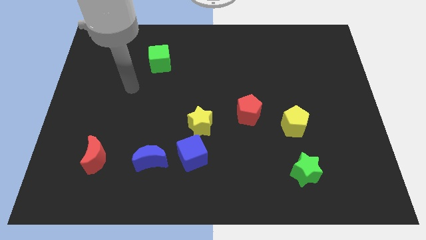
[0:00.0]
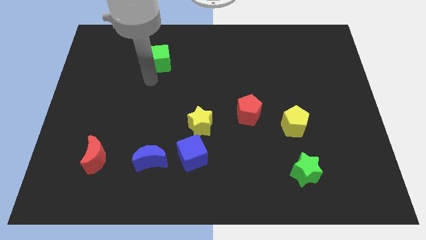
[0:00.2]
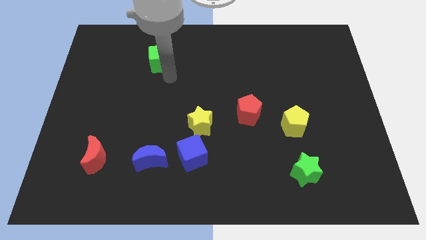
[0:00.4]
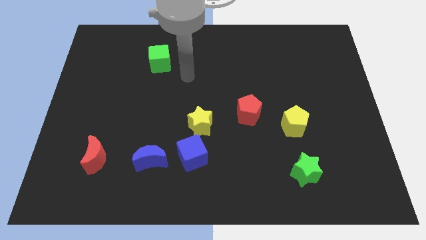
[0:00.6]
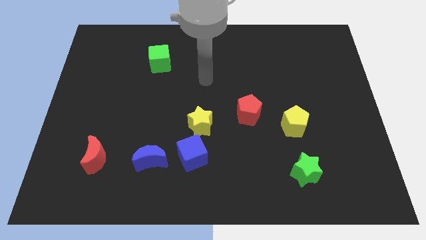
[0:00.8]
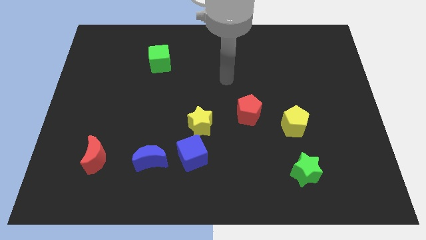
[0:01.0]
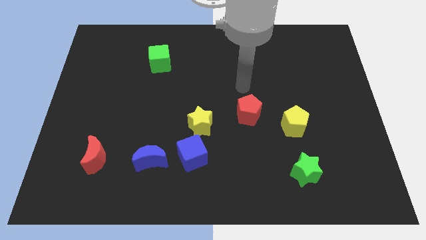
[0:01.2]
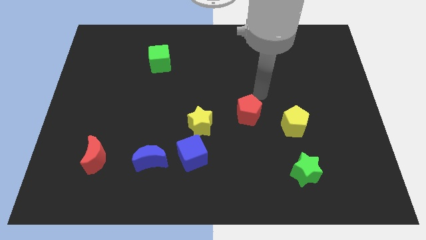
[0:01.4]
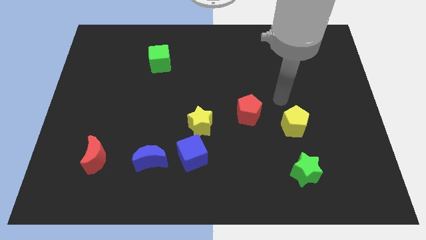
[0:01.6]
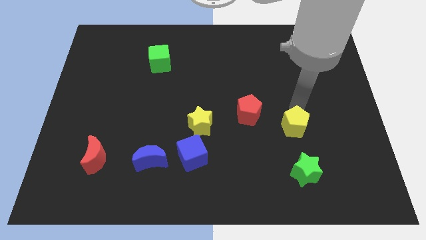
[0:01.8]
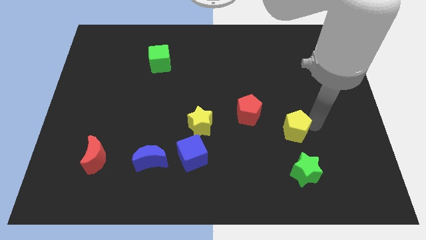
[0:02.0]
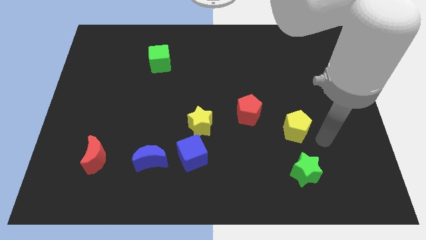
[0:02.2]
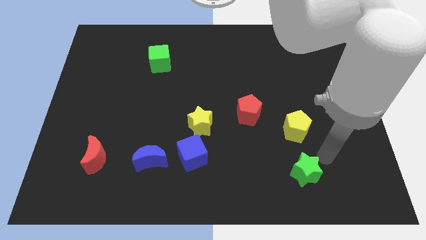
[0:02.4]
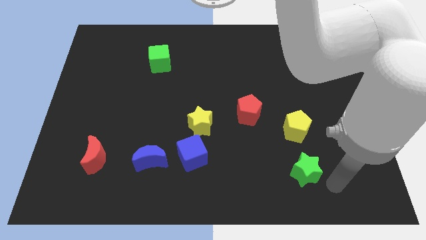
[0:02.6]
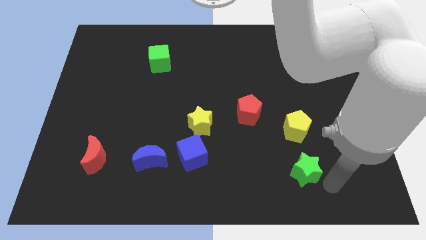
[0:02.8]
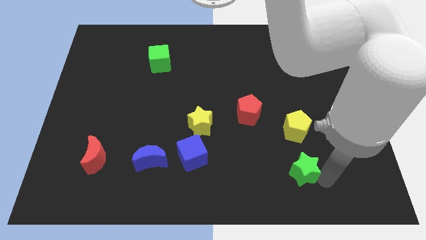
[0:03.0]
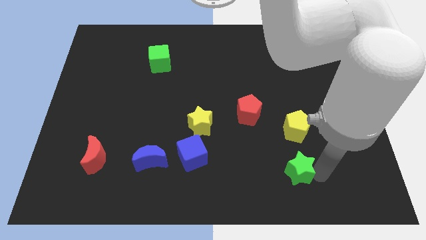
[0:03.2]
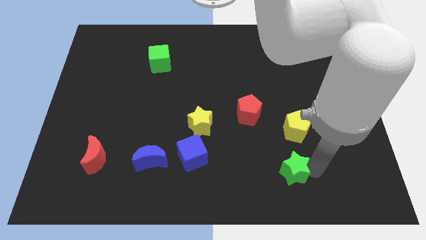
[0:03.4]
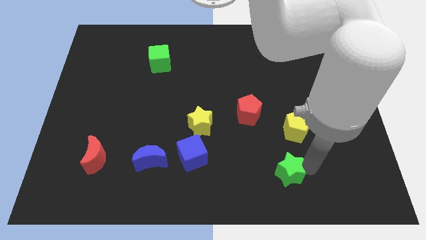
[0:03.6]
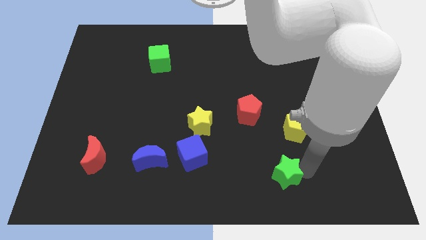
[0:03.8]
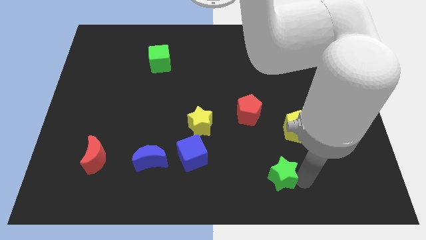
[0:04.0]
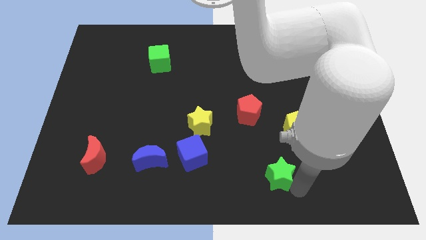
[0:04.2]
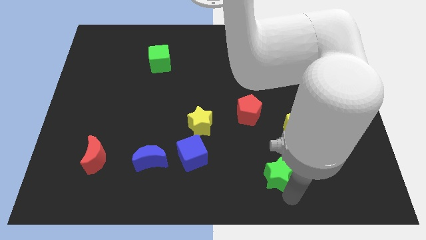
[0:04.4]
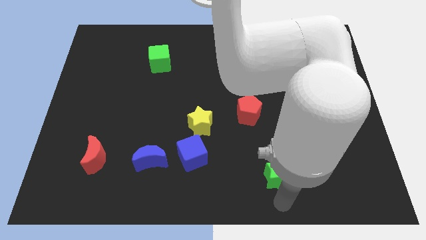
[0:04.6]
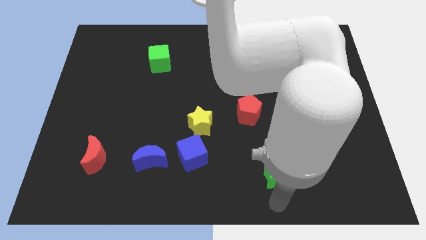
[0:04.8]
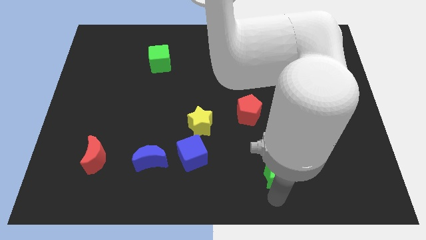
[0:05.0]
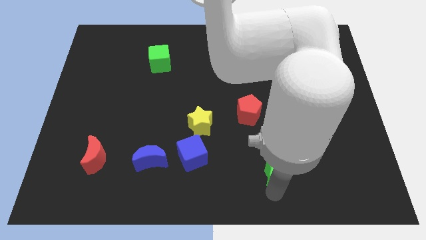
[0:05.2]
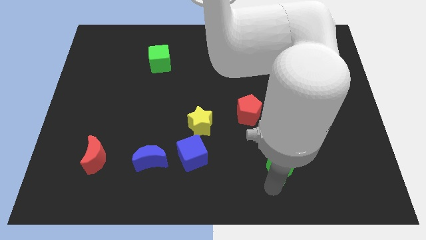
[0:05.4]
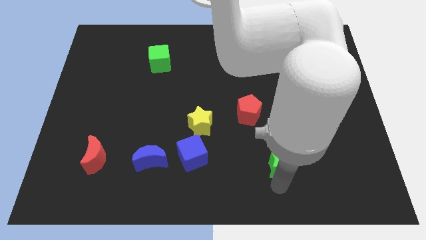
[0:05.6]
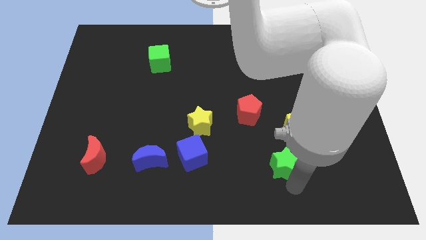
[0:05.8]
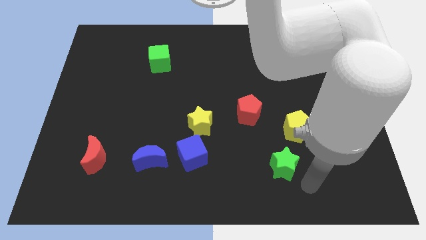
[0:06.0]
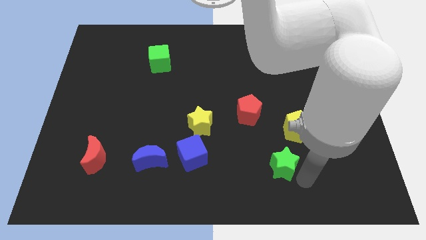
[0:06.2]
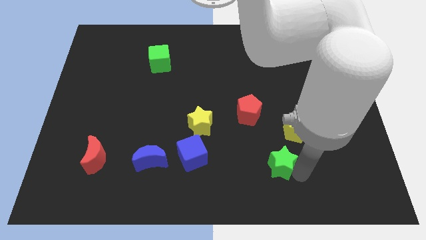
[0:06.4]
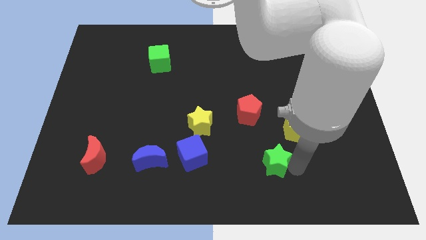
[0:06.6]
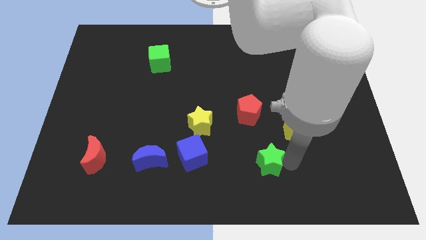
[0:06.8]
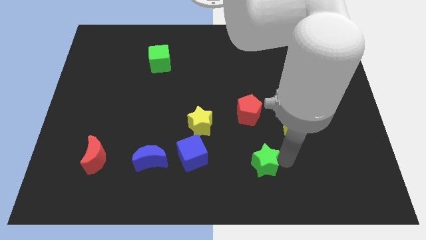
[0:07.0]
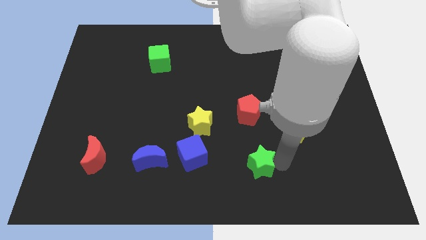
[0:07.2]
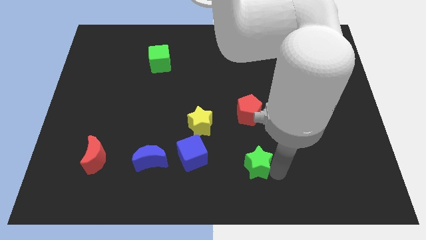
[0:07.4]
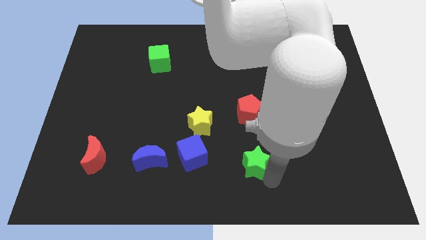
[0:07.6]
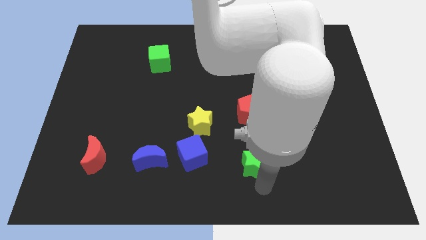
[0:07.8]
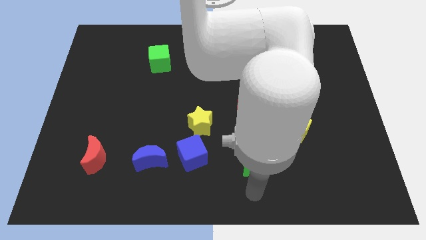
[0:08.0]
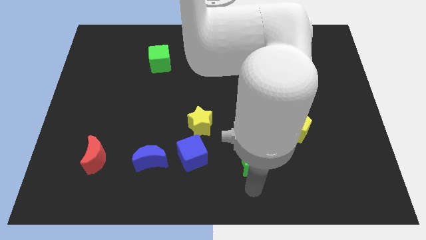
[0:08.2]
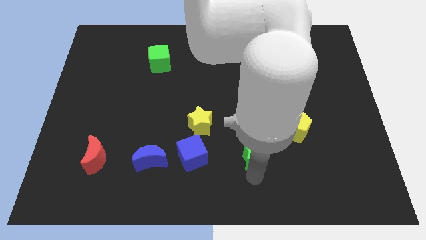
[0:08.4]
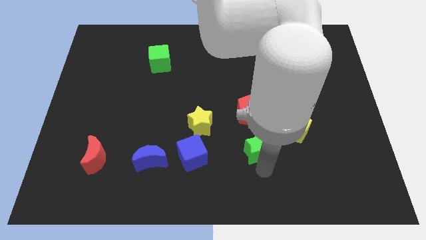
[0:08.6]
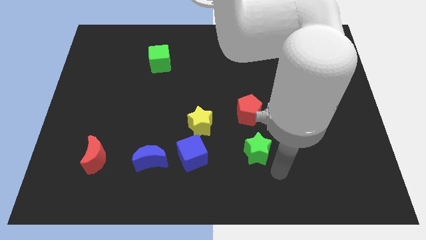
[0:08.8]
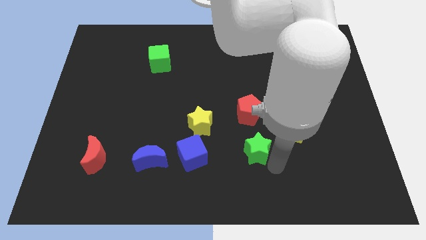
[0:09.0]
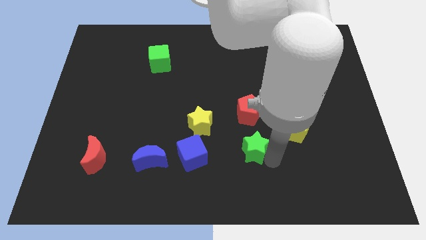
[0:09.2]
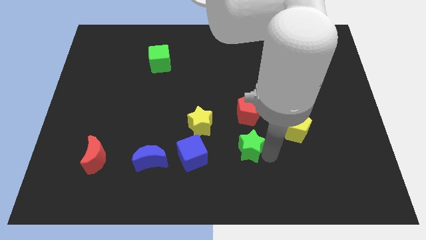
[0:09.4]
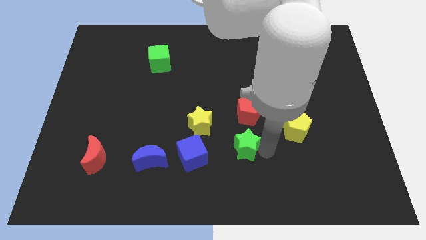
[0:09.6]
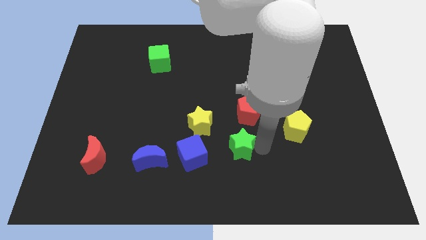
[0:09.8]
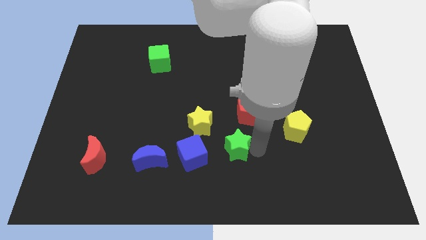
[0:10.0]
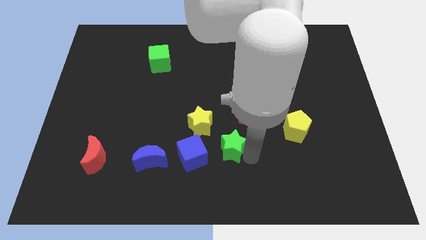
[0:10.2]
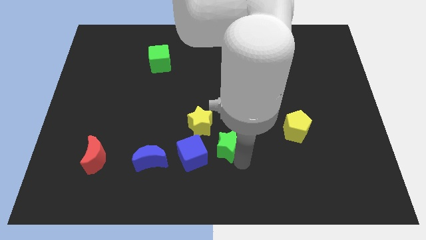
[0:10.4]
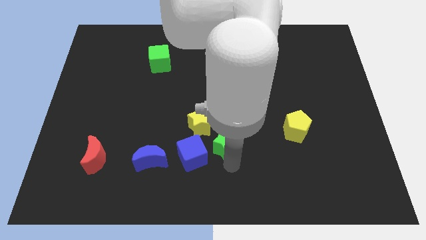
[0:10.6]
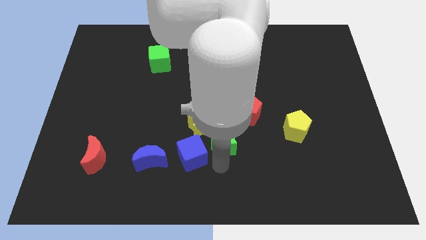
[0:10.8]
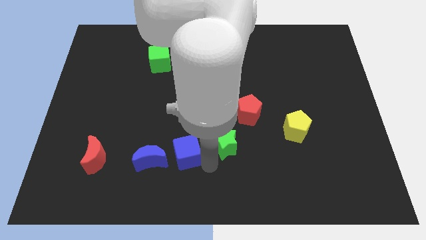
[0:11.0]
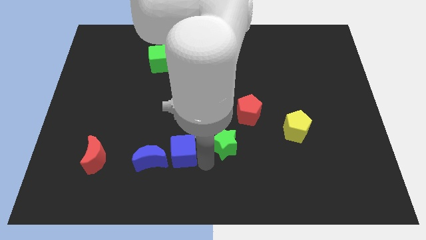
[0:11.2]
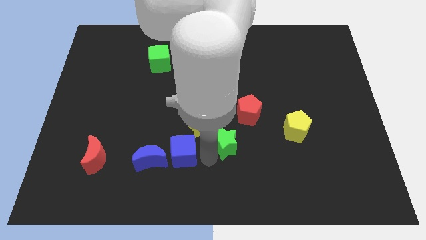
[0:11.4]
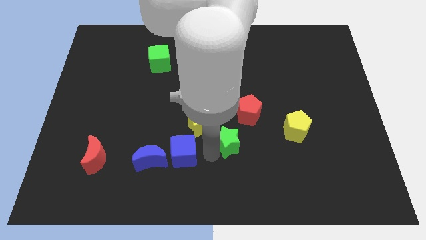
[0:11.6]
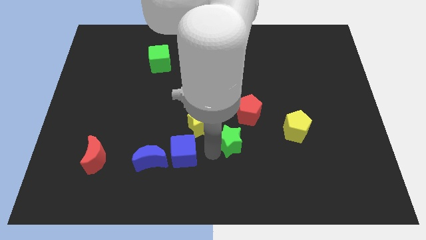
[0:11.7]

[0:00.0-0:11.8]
slide the green star to the center of the board

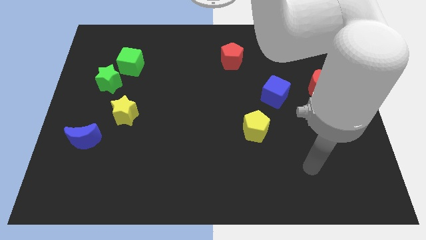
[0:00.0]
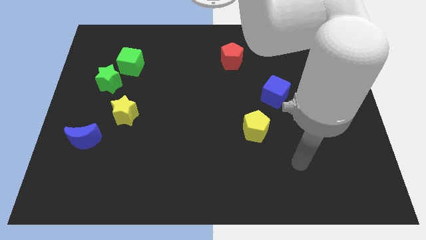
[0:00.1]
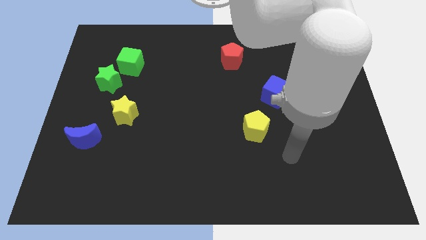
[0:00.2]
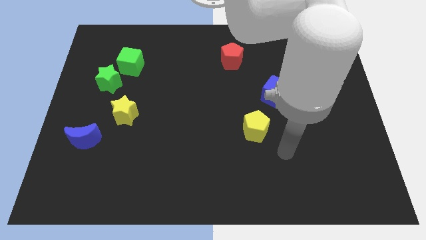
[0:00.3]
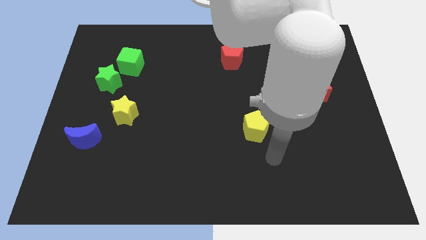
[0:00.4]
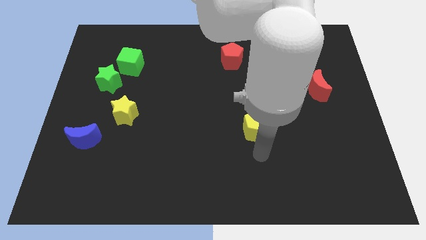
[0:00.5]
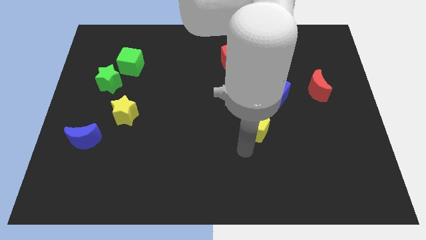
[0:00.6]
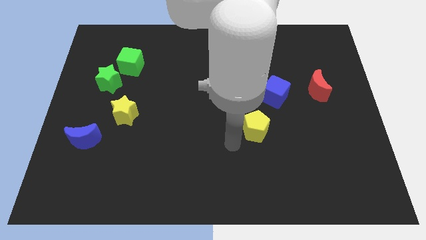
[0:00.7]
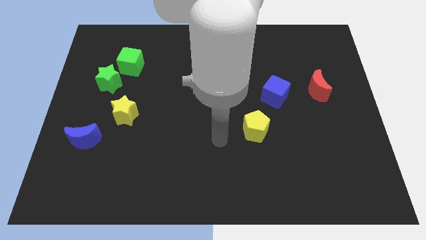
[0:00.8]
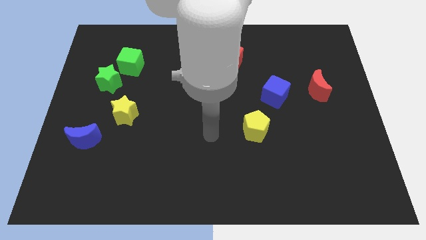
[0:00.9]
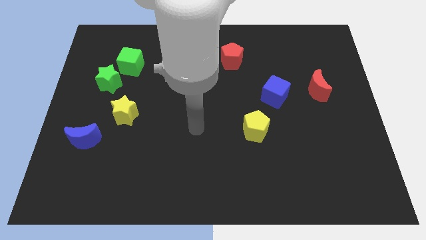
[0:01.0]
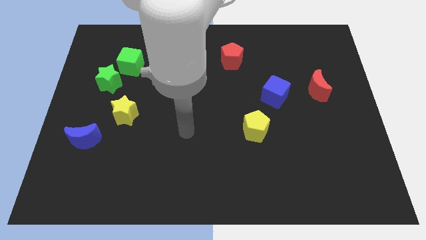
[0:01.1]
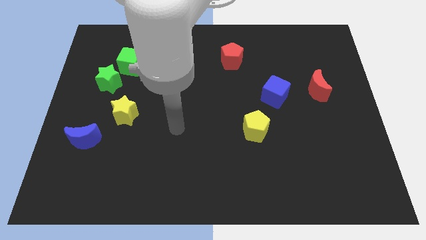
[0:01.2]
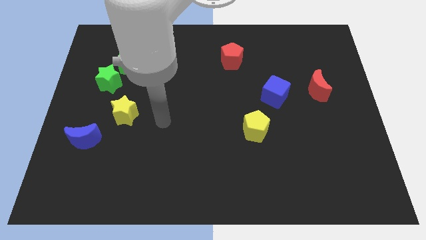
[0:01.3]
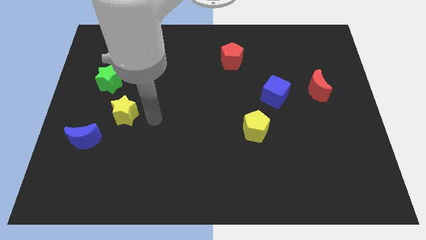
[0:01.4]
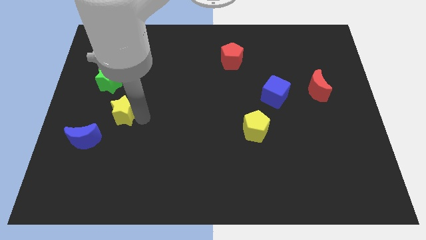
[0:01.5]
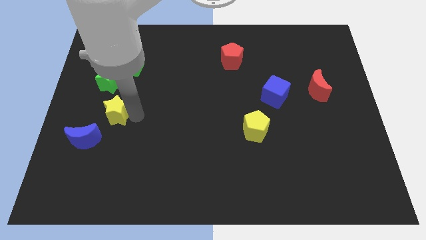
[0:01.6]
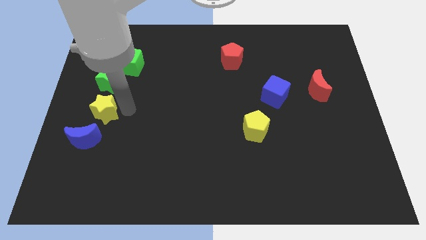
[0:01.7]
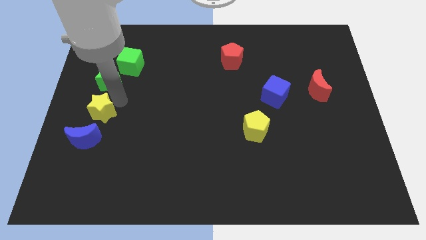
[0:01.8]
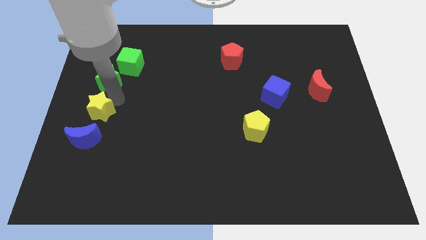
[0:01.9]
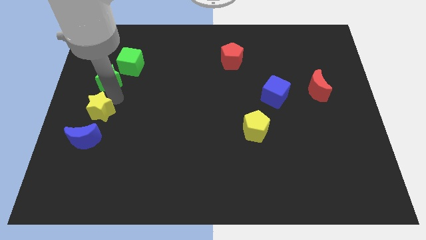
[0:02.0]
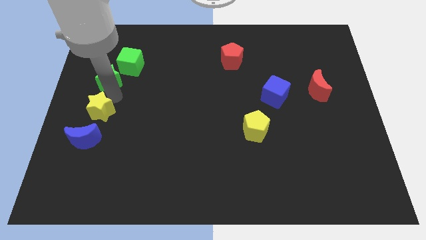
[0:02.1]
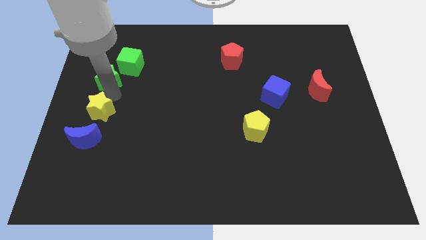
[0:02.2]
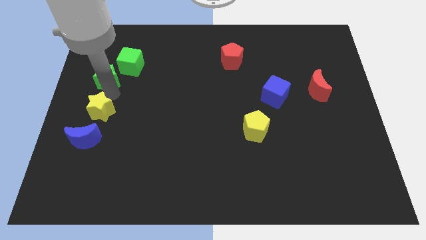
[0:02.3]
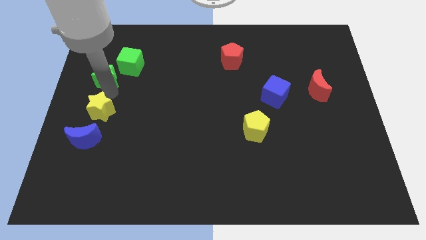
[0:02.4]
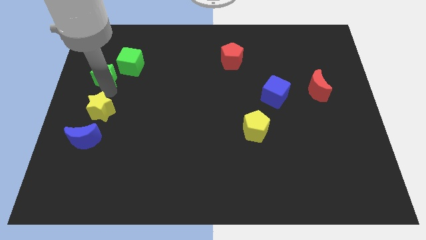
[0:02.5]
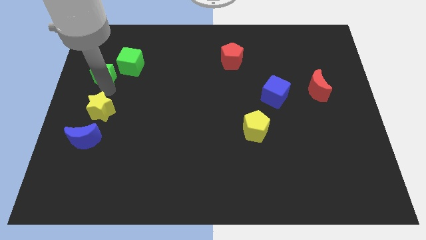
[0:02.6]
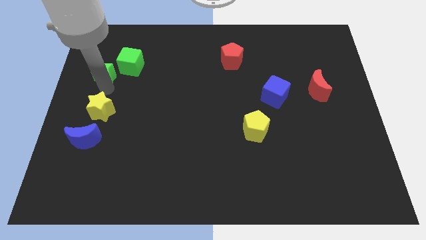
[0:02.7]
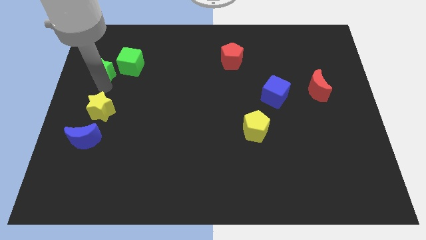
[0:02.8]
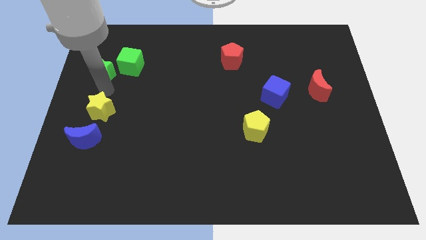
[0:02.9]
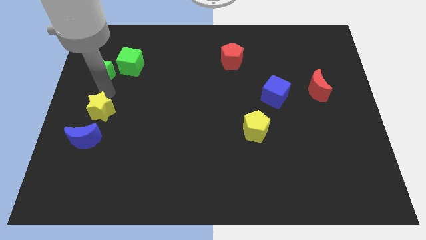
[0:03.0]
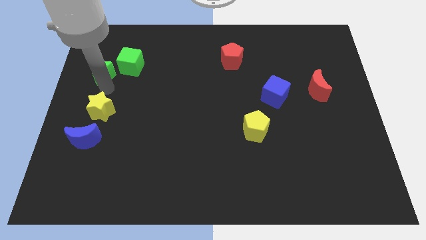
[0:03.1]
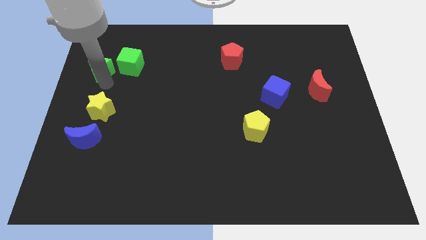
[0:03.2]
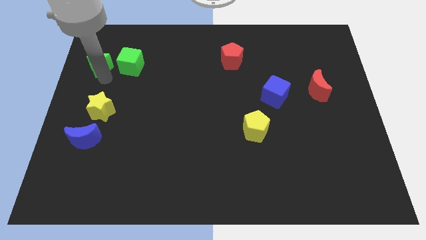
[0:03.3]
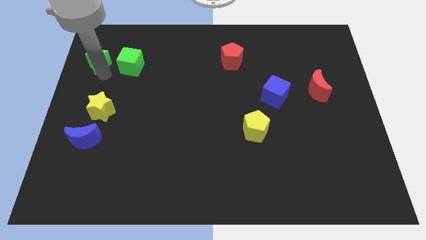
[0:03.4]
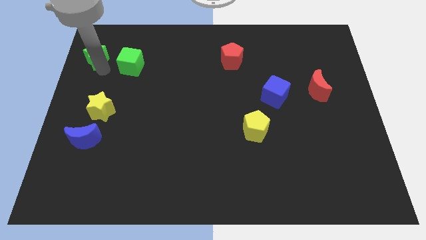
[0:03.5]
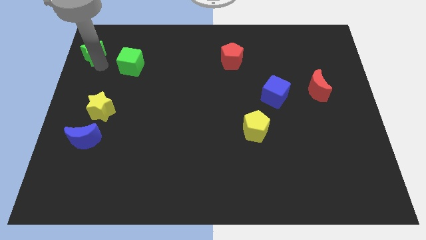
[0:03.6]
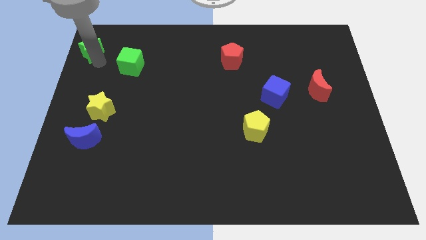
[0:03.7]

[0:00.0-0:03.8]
push the green star to the top left of the board
